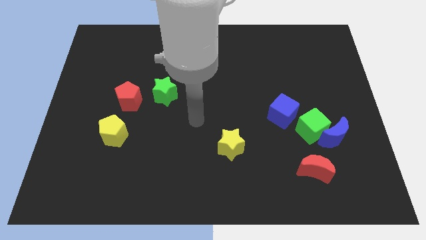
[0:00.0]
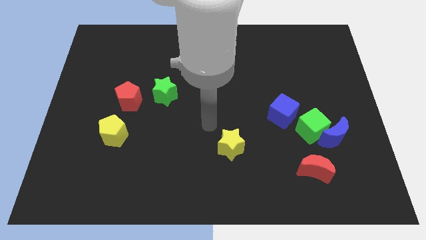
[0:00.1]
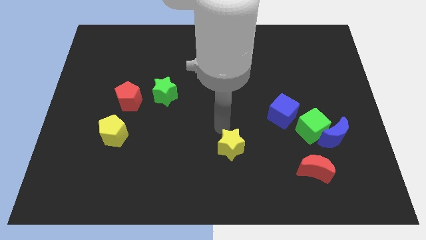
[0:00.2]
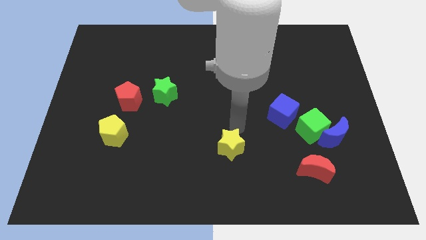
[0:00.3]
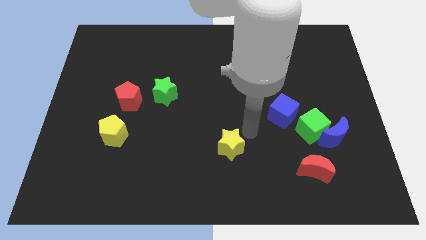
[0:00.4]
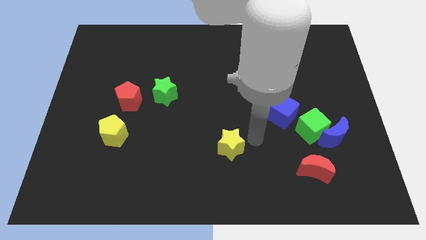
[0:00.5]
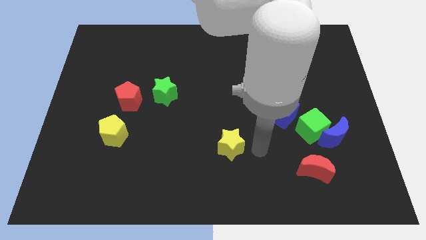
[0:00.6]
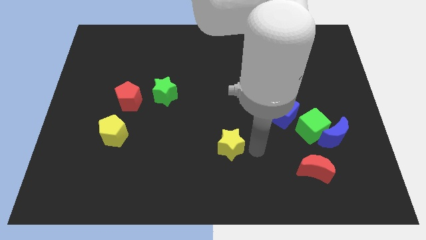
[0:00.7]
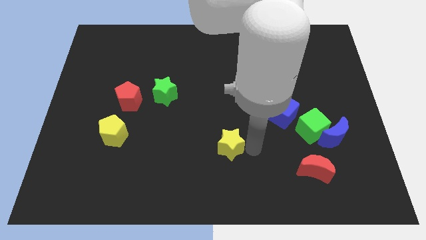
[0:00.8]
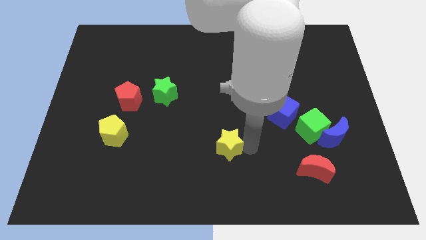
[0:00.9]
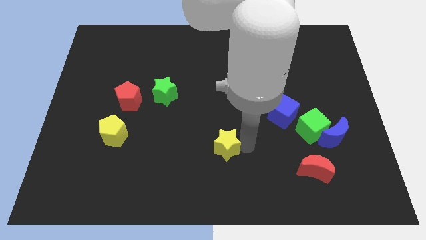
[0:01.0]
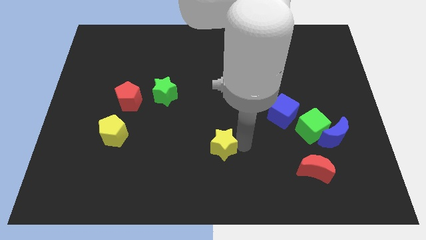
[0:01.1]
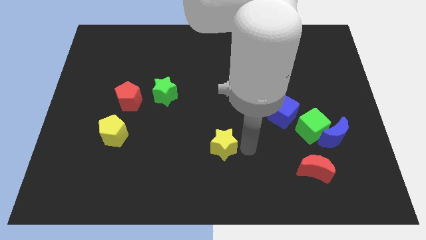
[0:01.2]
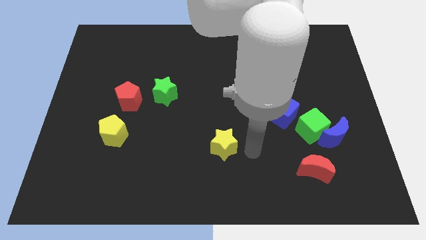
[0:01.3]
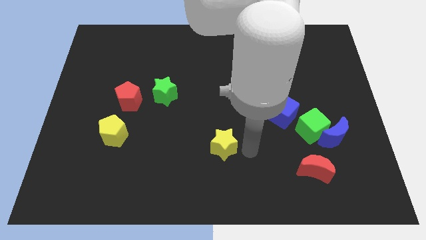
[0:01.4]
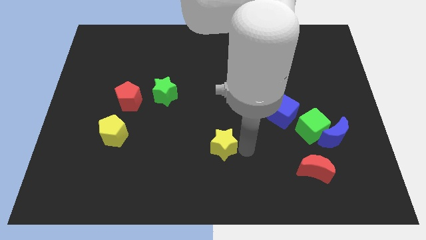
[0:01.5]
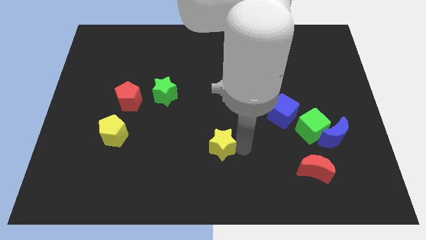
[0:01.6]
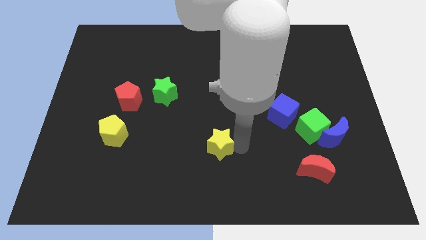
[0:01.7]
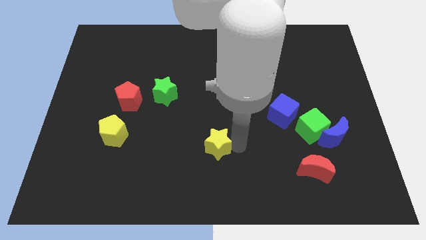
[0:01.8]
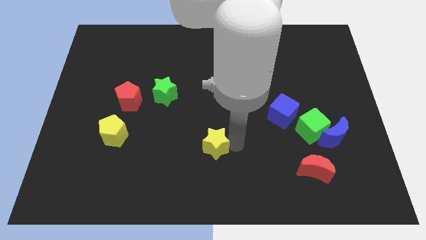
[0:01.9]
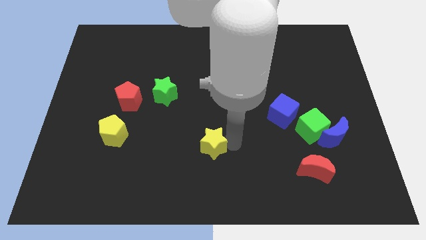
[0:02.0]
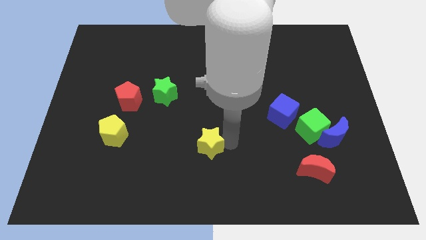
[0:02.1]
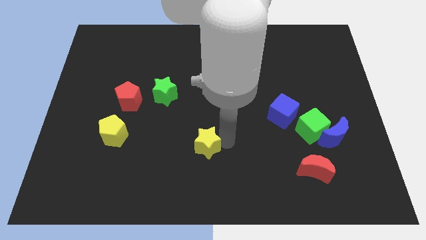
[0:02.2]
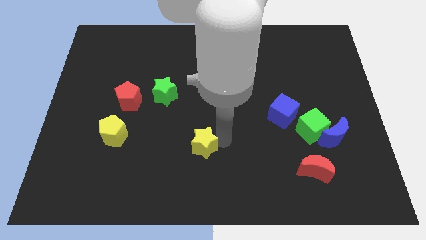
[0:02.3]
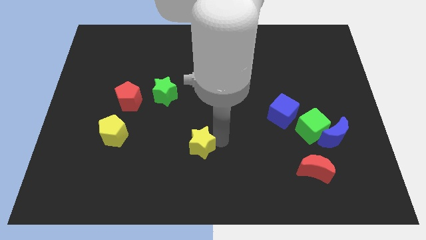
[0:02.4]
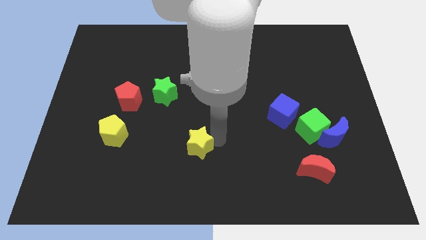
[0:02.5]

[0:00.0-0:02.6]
push the yellow star a little bit left

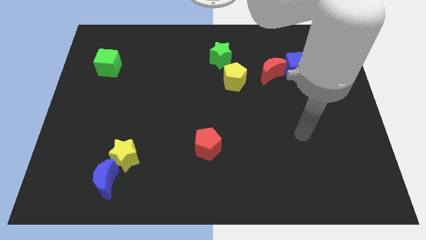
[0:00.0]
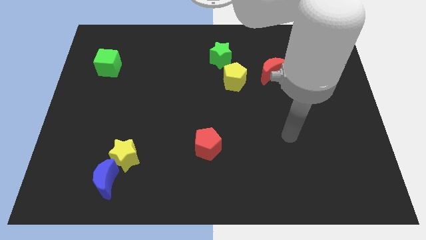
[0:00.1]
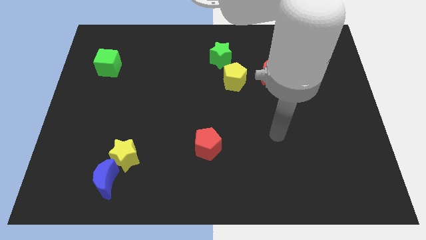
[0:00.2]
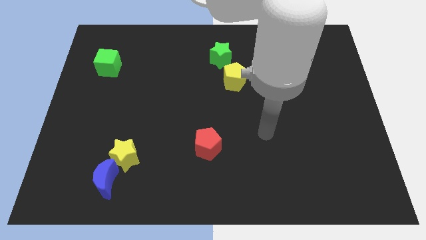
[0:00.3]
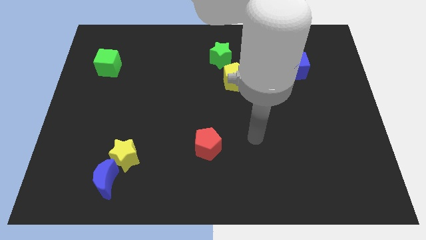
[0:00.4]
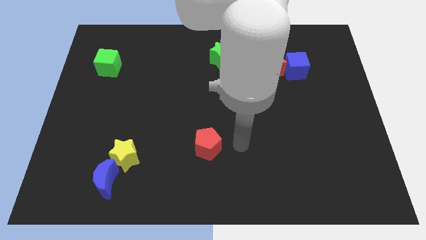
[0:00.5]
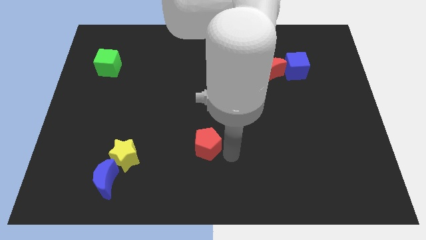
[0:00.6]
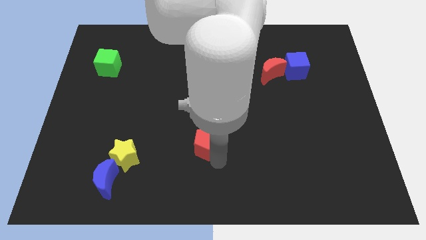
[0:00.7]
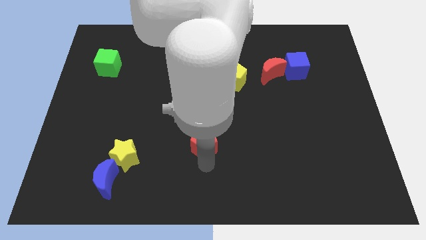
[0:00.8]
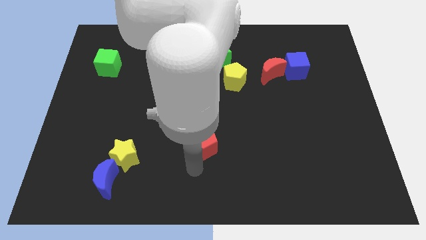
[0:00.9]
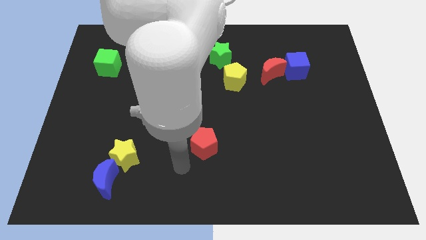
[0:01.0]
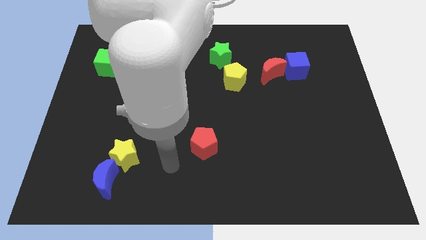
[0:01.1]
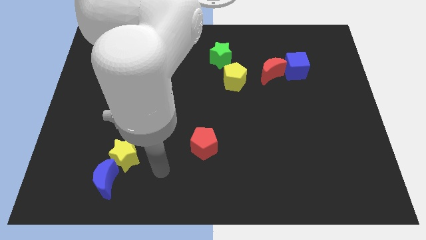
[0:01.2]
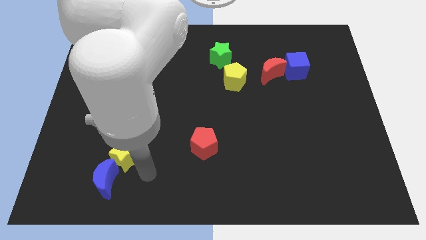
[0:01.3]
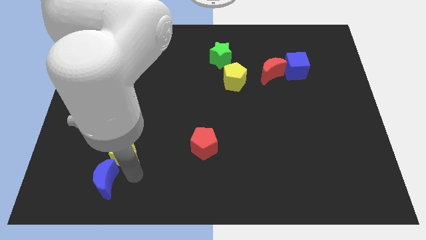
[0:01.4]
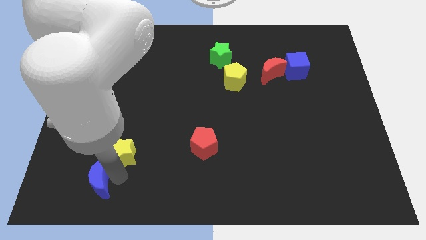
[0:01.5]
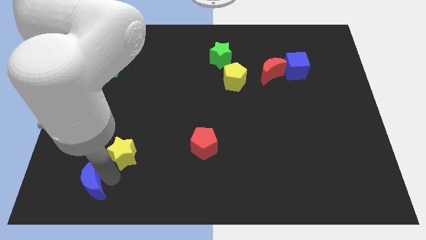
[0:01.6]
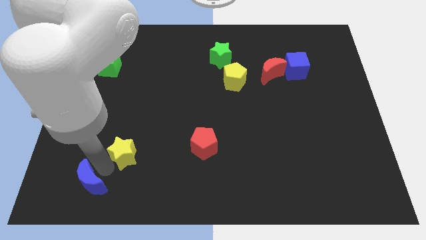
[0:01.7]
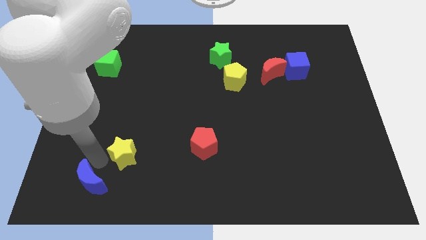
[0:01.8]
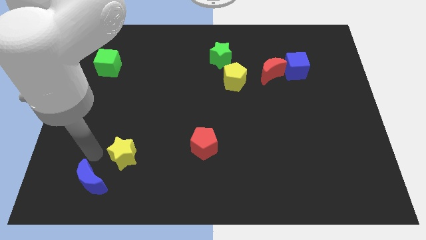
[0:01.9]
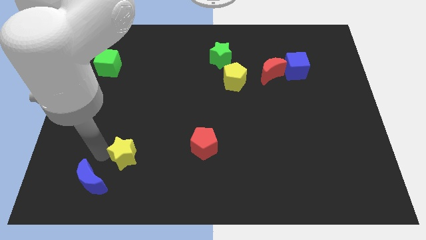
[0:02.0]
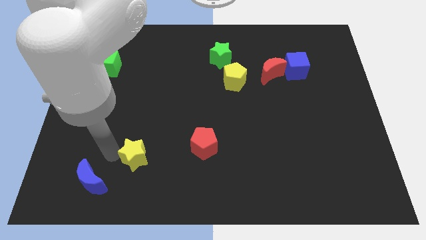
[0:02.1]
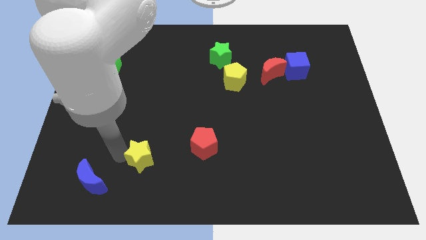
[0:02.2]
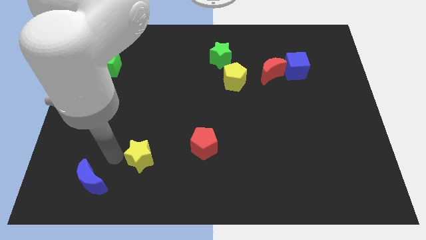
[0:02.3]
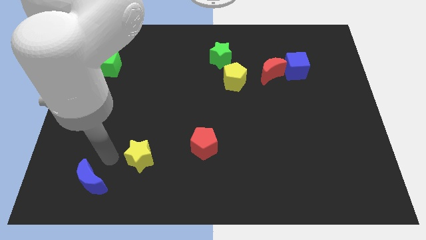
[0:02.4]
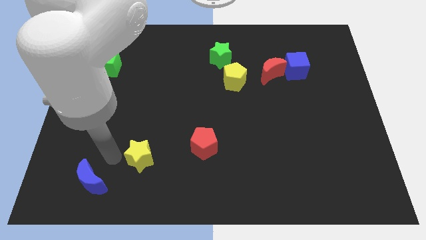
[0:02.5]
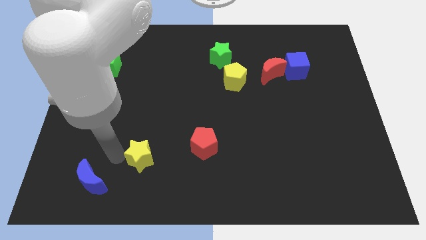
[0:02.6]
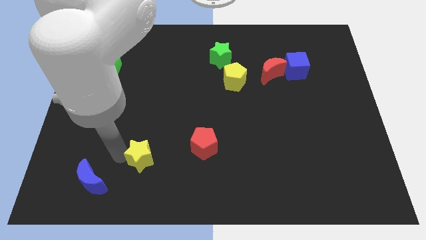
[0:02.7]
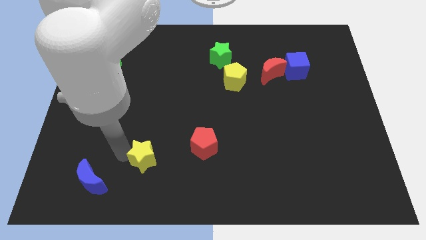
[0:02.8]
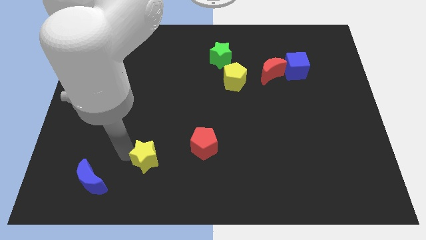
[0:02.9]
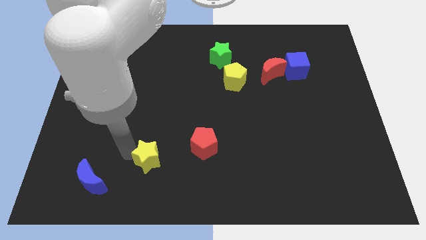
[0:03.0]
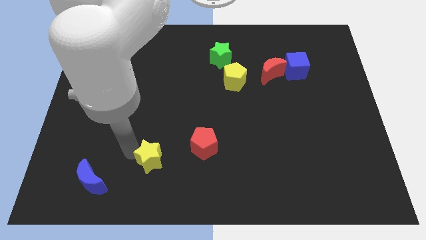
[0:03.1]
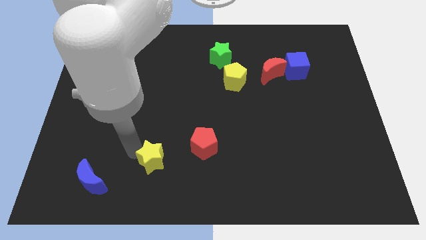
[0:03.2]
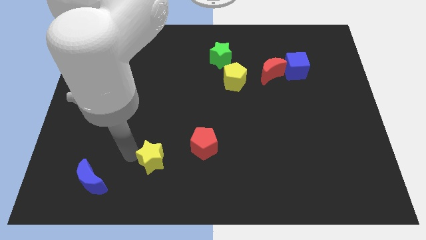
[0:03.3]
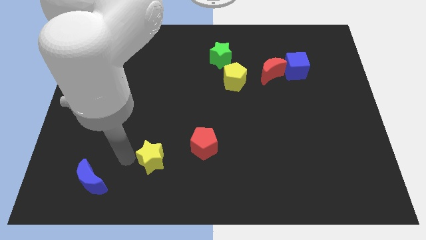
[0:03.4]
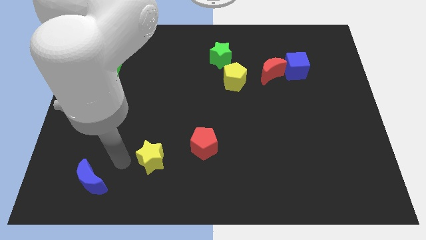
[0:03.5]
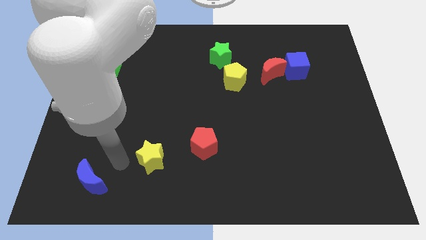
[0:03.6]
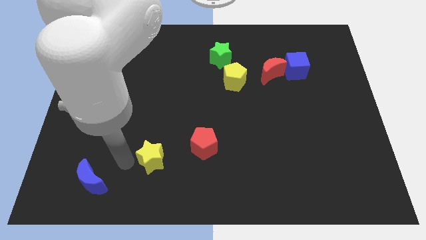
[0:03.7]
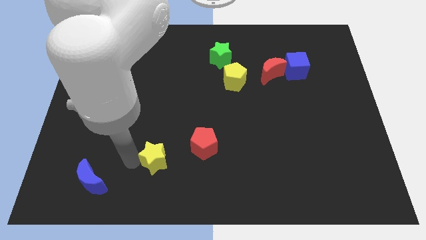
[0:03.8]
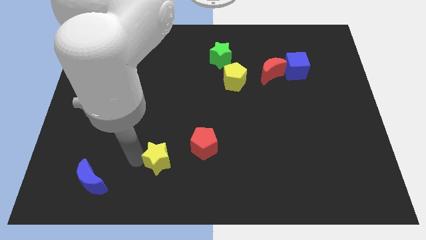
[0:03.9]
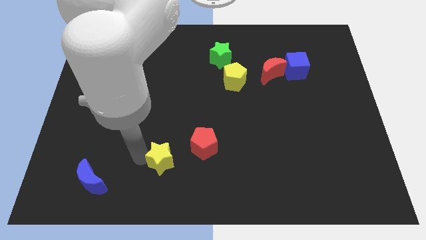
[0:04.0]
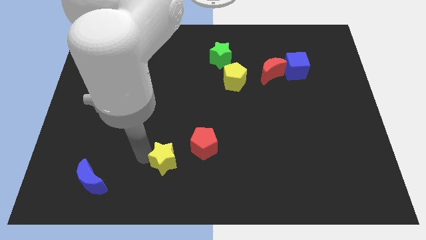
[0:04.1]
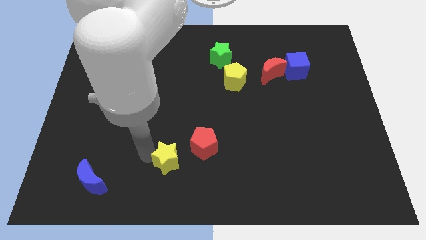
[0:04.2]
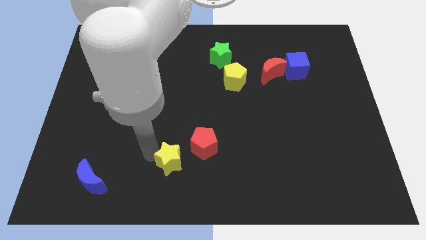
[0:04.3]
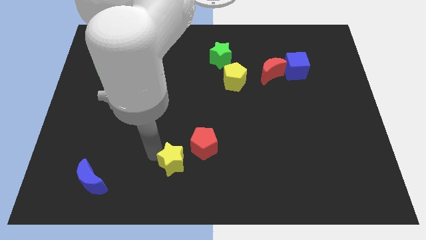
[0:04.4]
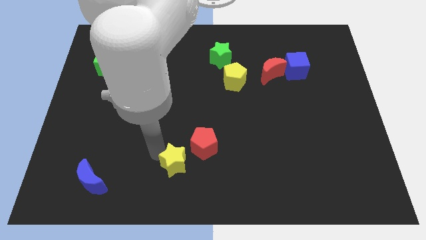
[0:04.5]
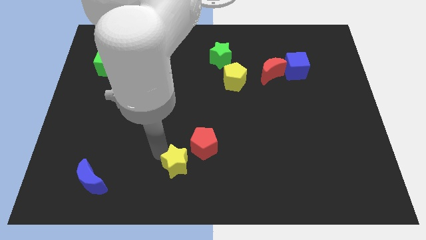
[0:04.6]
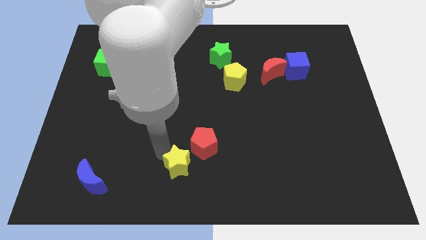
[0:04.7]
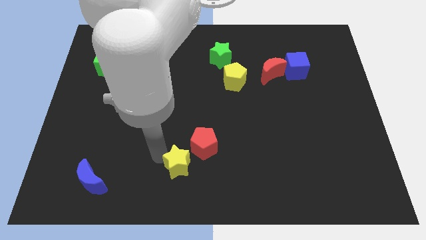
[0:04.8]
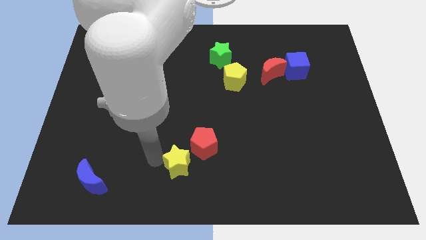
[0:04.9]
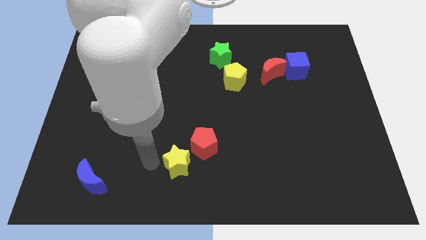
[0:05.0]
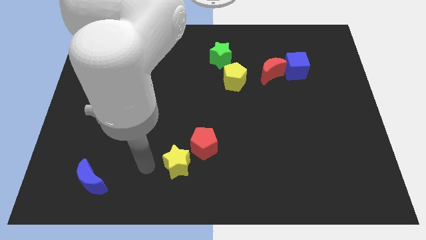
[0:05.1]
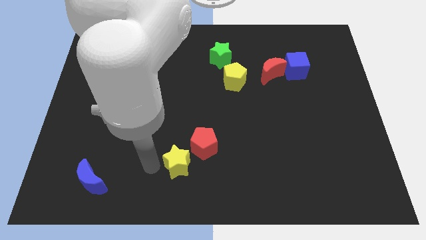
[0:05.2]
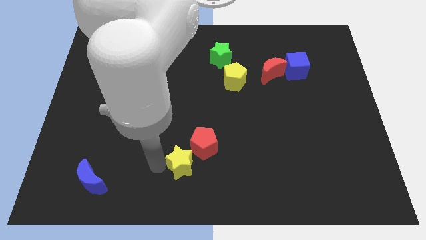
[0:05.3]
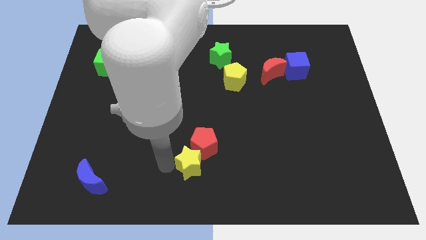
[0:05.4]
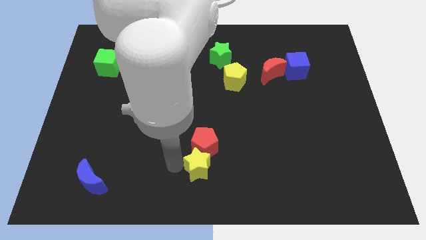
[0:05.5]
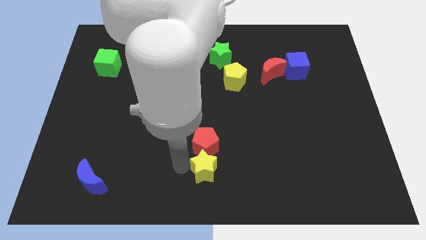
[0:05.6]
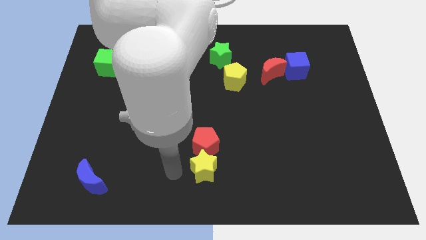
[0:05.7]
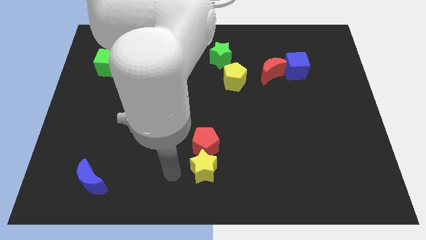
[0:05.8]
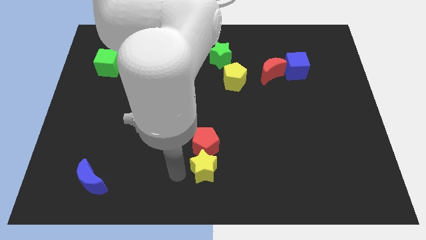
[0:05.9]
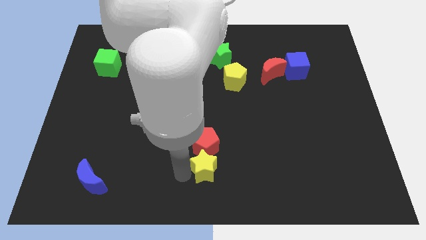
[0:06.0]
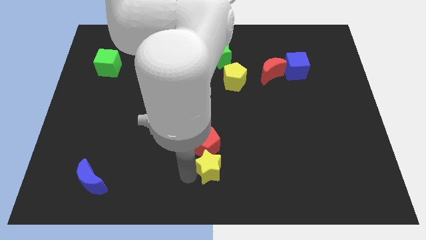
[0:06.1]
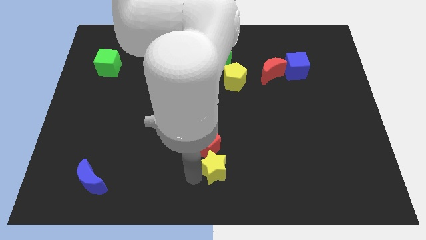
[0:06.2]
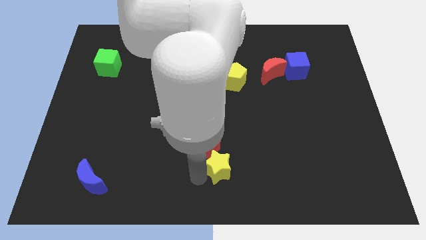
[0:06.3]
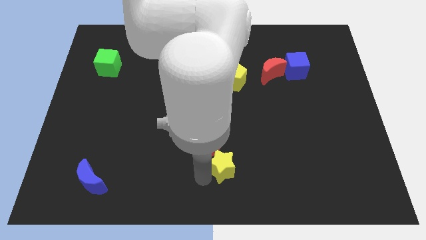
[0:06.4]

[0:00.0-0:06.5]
slide the yellow star to the right
